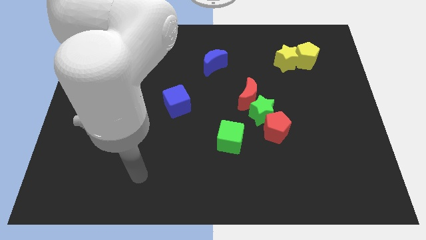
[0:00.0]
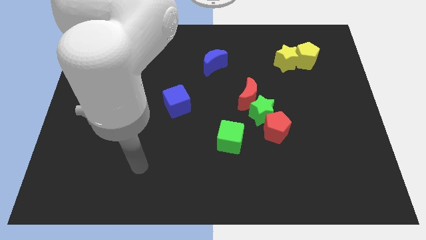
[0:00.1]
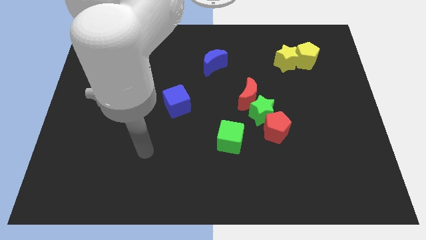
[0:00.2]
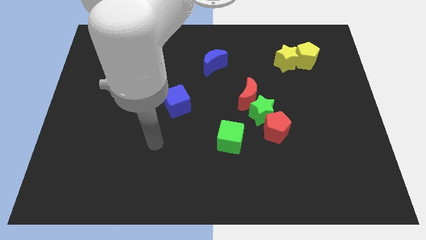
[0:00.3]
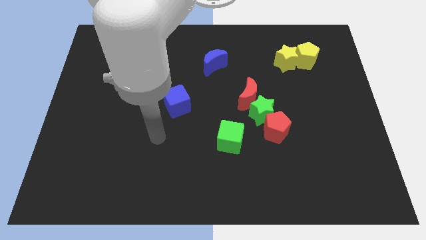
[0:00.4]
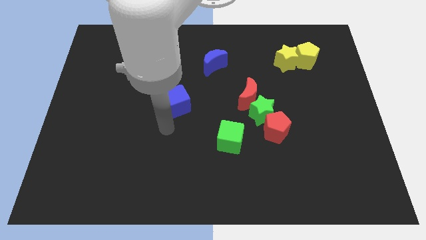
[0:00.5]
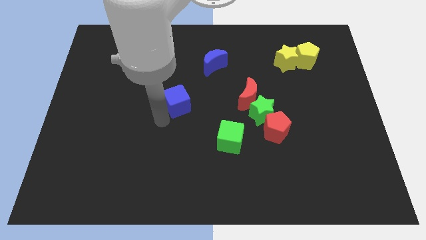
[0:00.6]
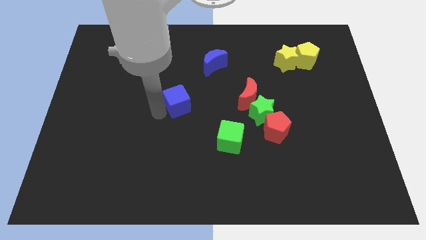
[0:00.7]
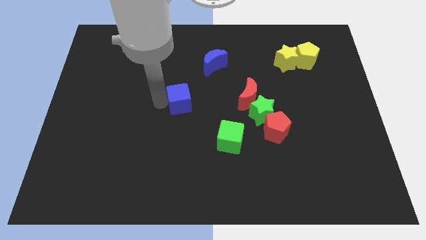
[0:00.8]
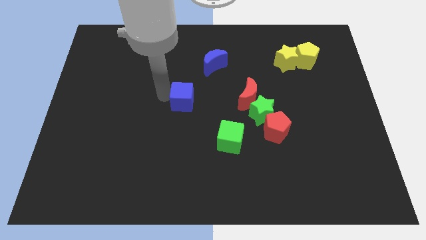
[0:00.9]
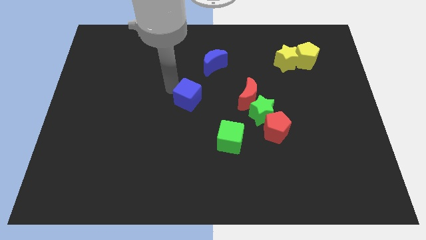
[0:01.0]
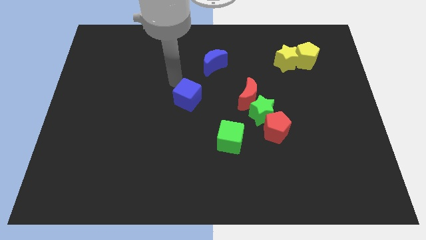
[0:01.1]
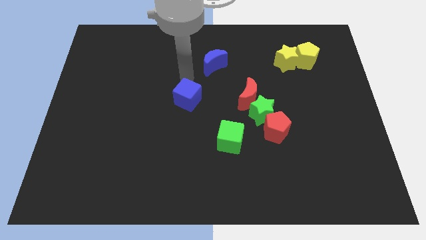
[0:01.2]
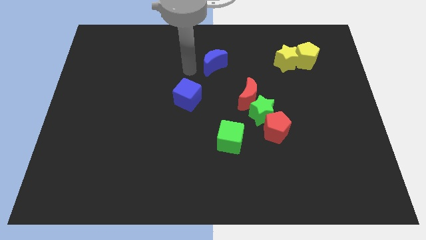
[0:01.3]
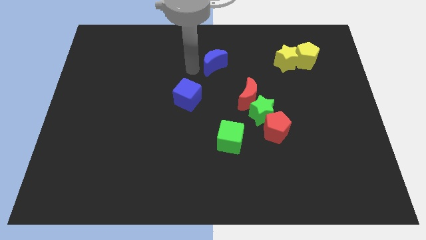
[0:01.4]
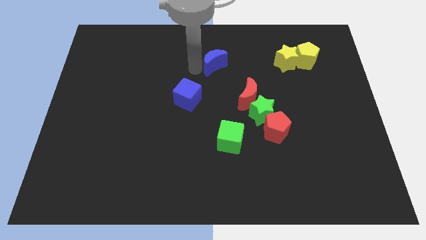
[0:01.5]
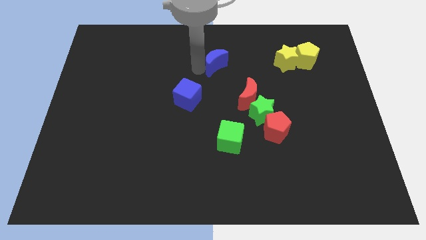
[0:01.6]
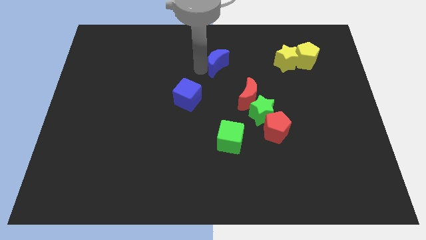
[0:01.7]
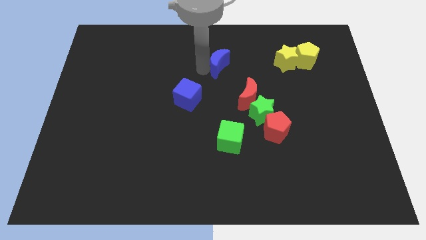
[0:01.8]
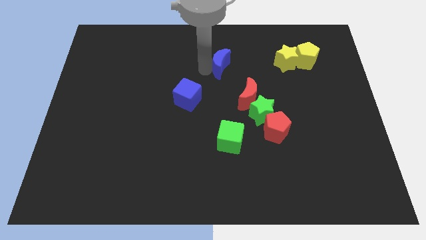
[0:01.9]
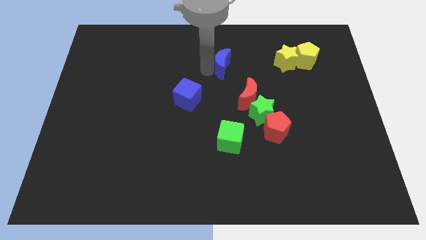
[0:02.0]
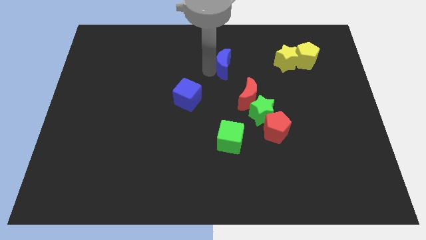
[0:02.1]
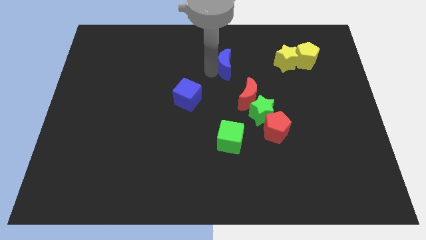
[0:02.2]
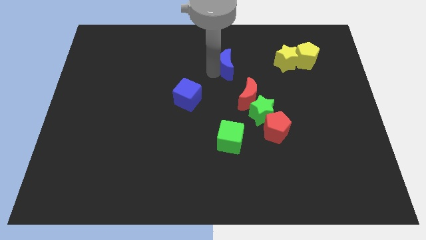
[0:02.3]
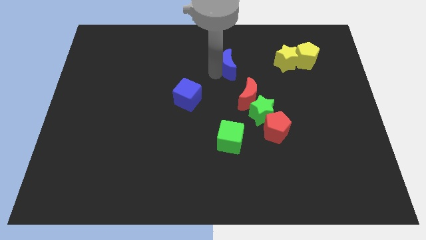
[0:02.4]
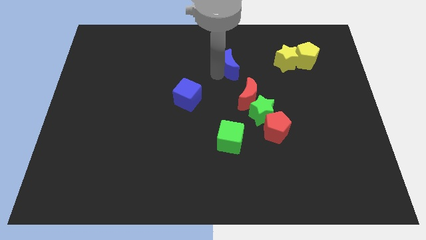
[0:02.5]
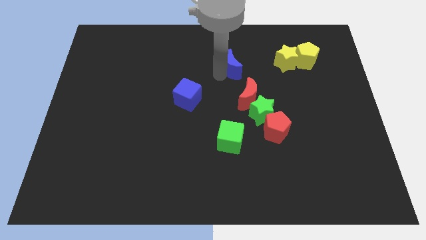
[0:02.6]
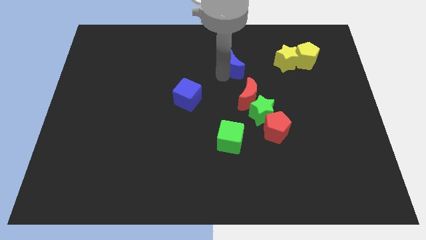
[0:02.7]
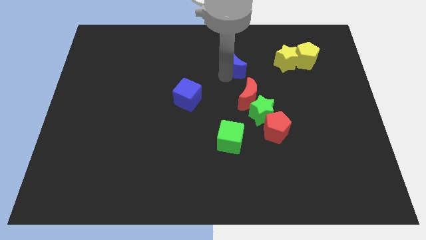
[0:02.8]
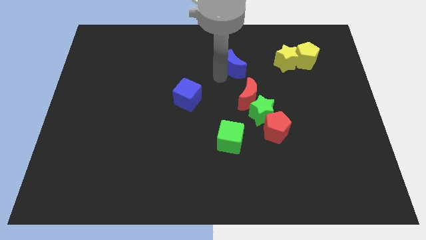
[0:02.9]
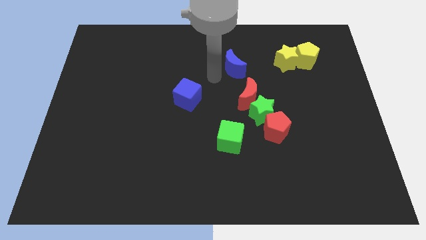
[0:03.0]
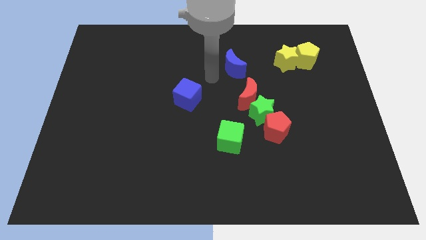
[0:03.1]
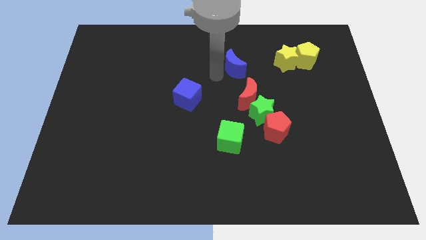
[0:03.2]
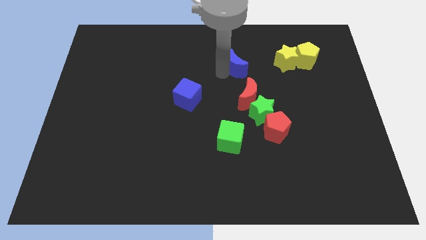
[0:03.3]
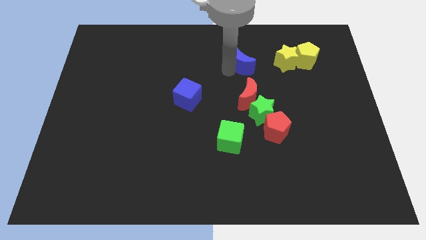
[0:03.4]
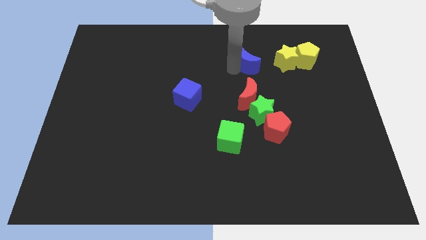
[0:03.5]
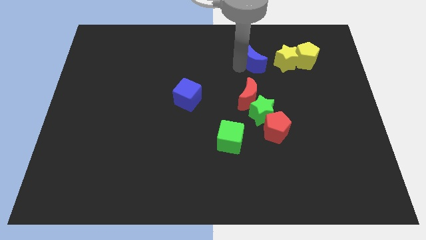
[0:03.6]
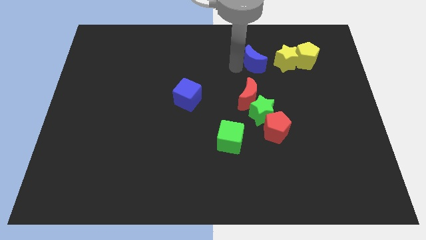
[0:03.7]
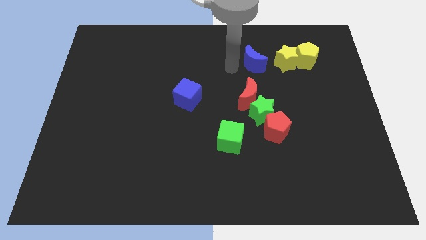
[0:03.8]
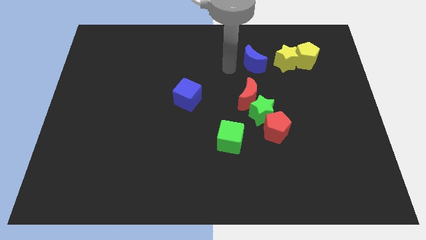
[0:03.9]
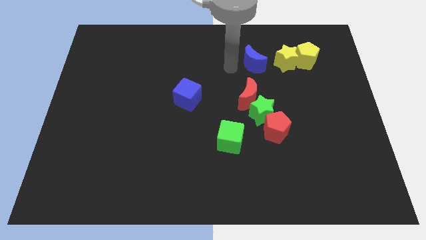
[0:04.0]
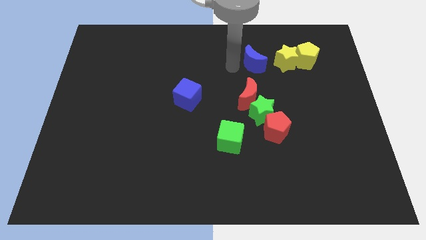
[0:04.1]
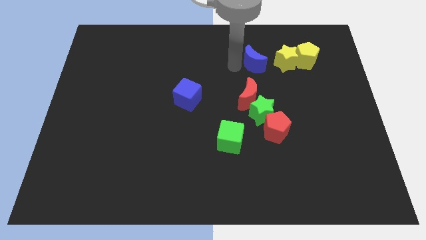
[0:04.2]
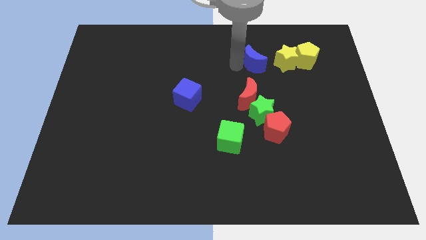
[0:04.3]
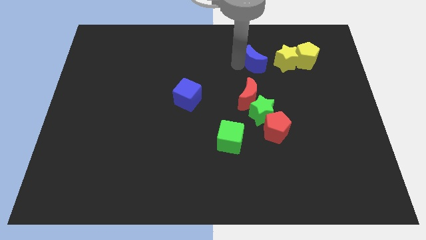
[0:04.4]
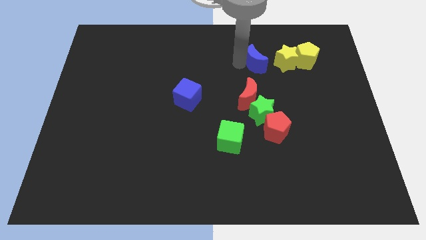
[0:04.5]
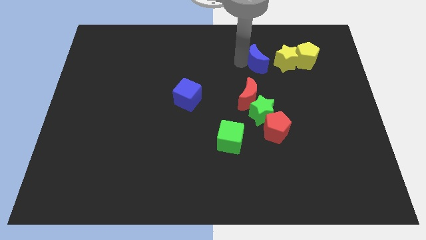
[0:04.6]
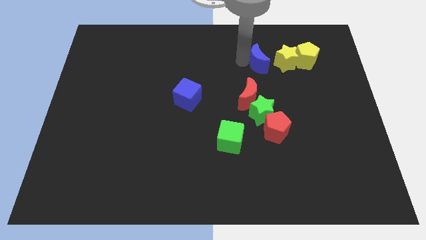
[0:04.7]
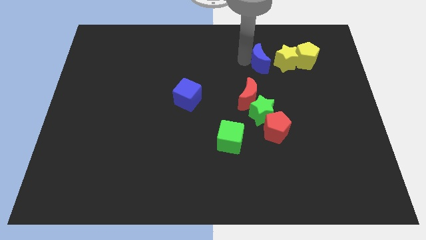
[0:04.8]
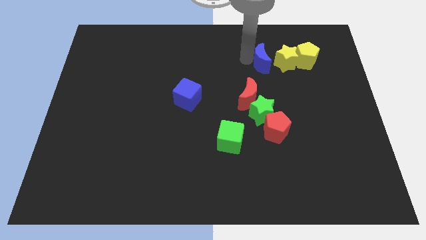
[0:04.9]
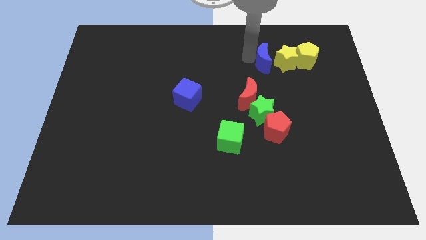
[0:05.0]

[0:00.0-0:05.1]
move the blue moon close to the yellow star

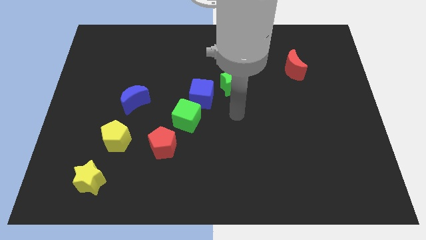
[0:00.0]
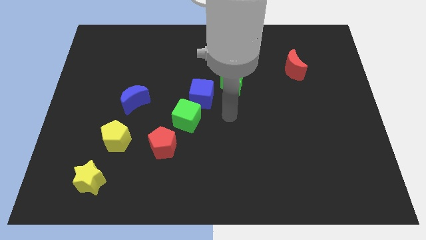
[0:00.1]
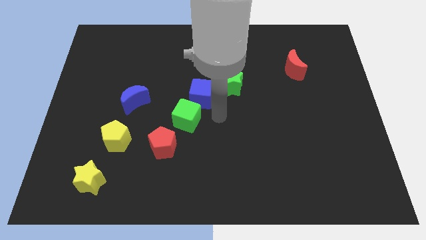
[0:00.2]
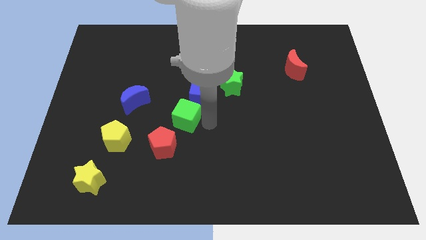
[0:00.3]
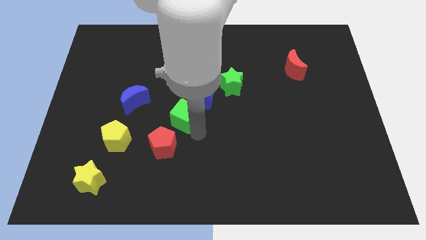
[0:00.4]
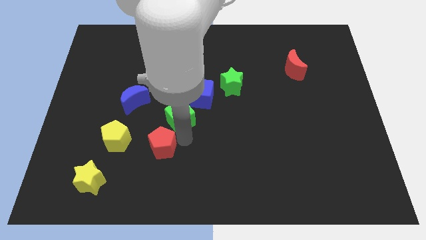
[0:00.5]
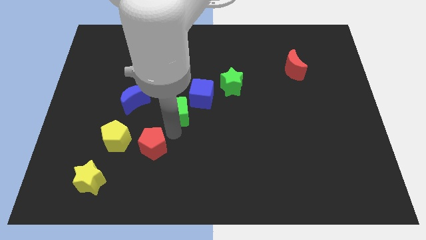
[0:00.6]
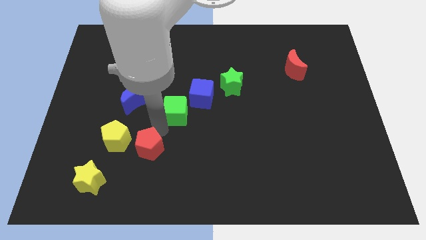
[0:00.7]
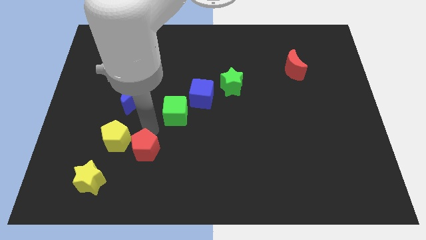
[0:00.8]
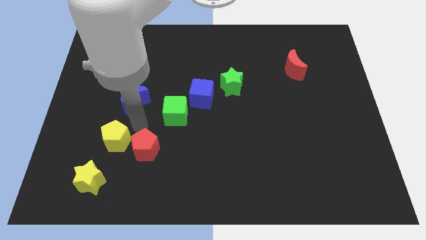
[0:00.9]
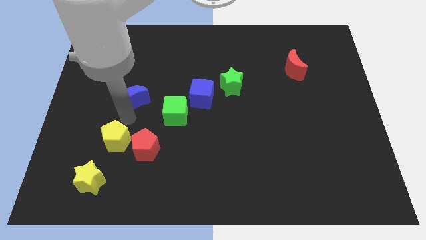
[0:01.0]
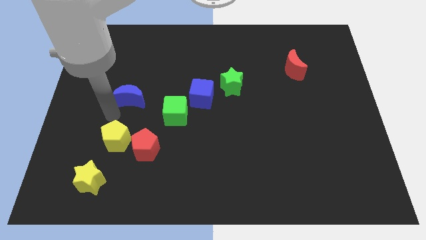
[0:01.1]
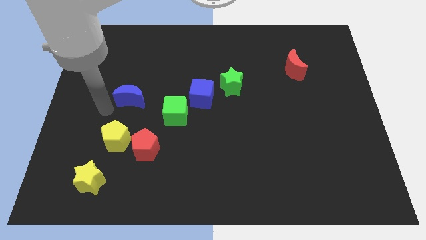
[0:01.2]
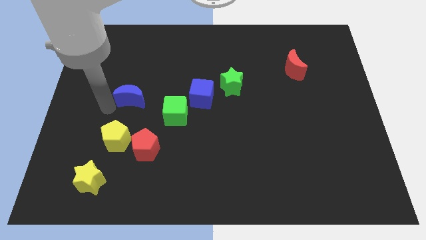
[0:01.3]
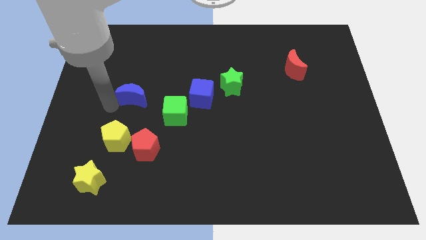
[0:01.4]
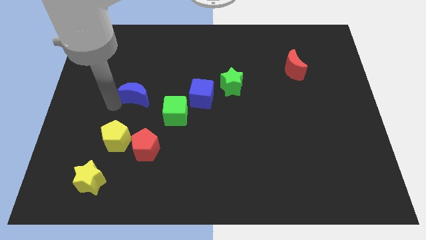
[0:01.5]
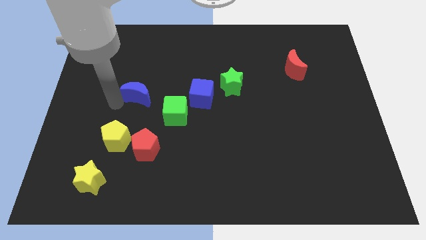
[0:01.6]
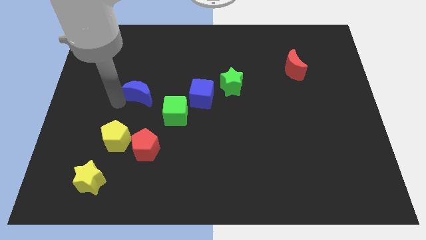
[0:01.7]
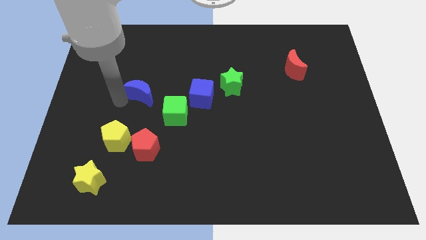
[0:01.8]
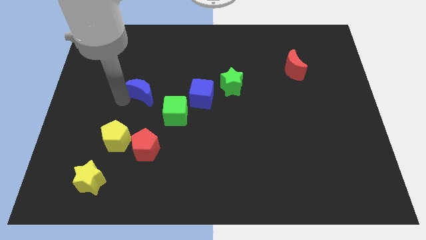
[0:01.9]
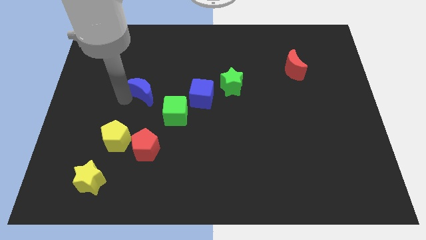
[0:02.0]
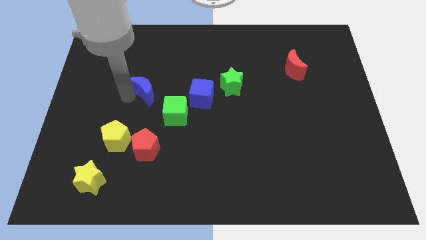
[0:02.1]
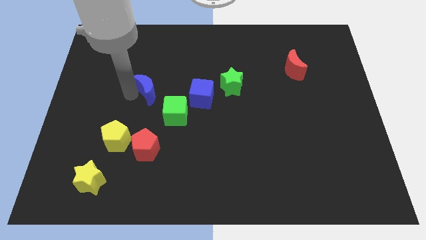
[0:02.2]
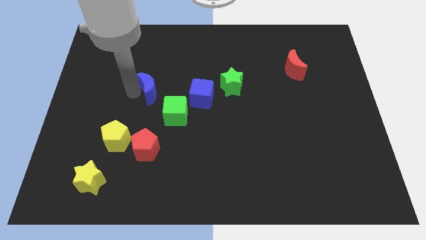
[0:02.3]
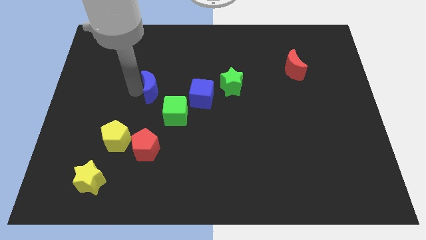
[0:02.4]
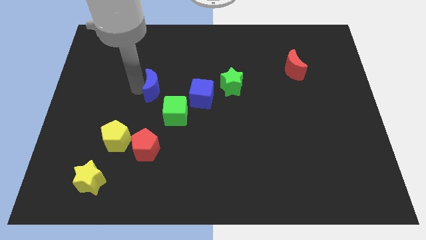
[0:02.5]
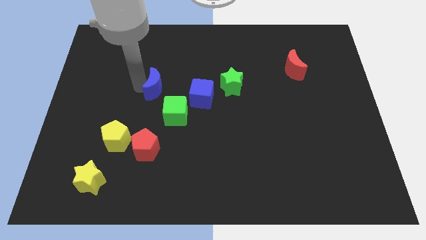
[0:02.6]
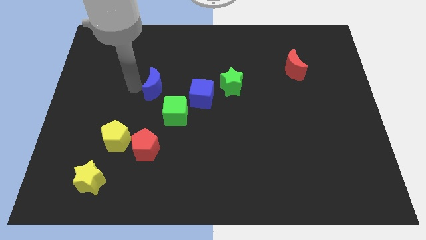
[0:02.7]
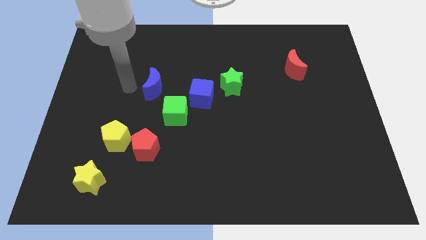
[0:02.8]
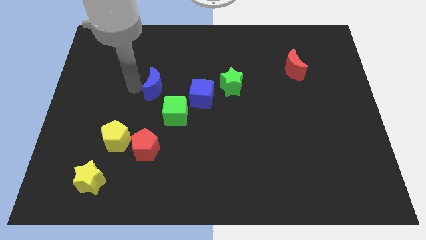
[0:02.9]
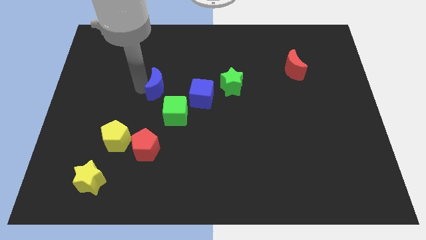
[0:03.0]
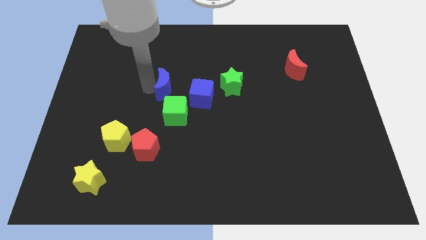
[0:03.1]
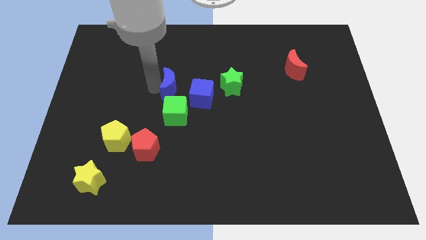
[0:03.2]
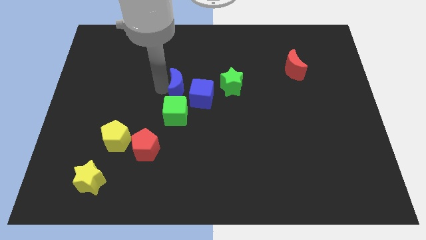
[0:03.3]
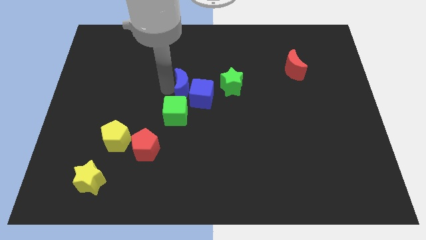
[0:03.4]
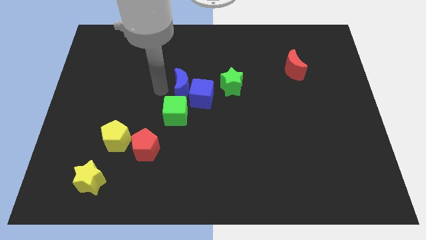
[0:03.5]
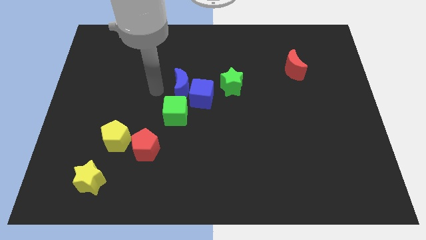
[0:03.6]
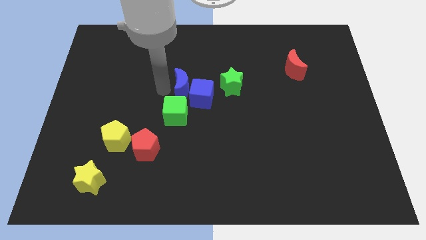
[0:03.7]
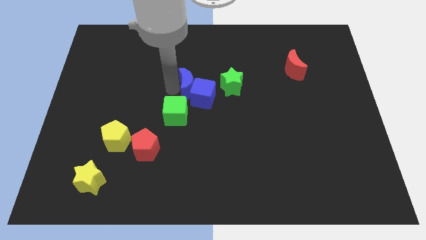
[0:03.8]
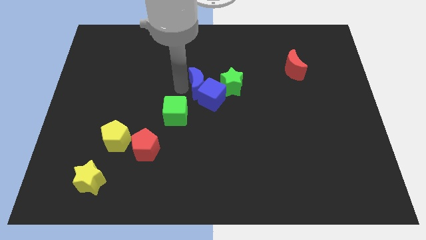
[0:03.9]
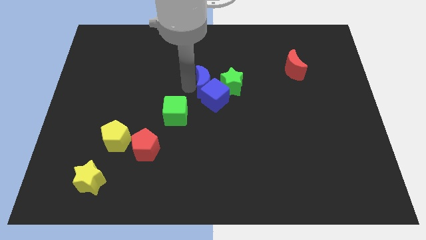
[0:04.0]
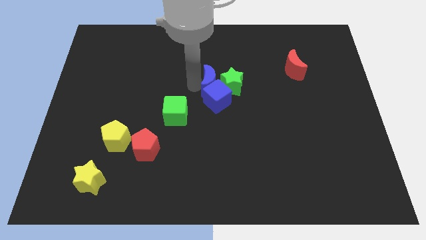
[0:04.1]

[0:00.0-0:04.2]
put the blue moon next to the green star
